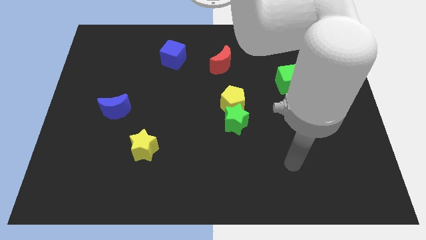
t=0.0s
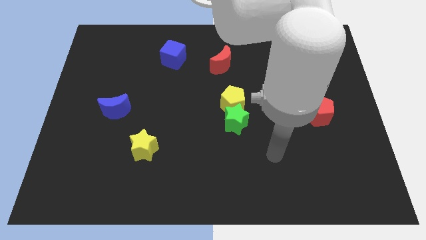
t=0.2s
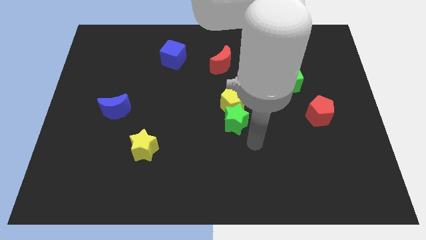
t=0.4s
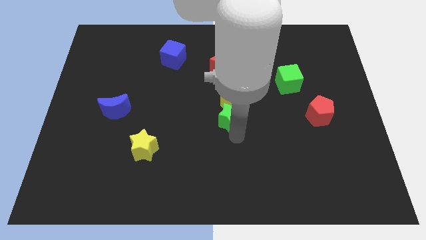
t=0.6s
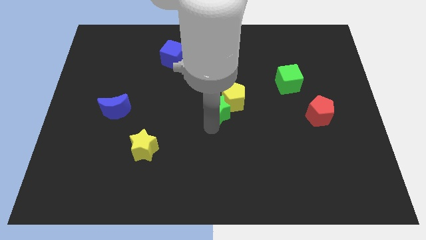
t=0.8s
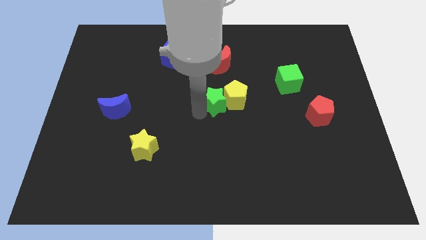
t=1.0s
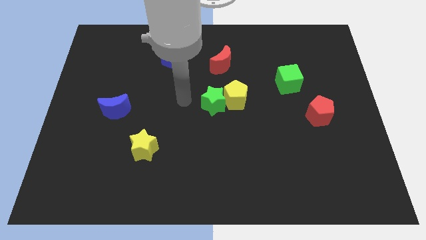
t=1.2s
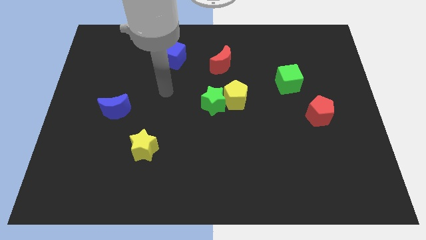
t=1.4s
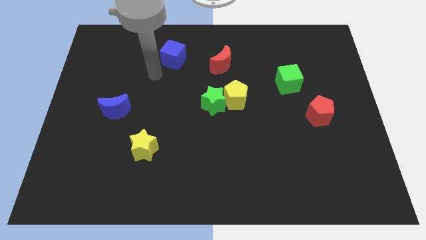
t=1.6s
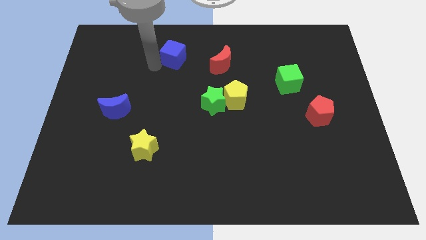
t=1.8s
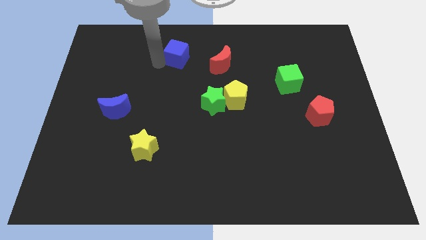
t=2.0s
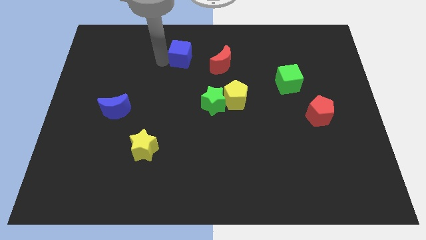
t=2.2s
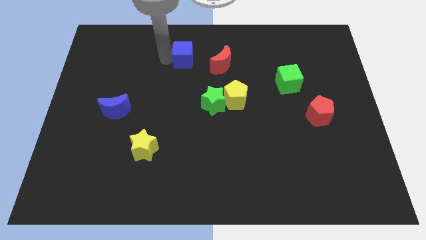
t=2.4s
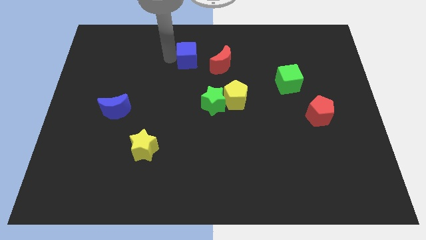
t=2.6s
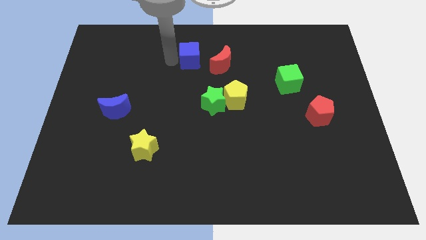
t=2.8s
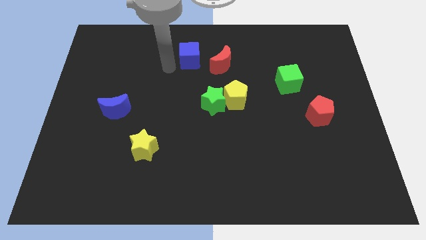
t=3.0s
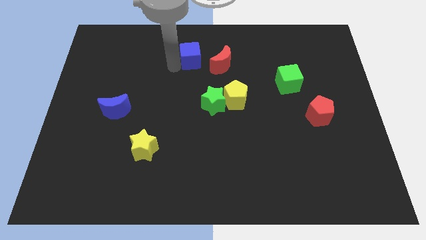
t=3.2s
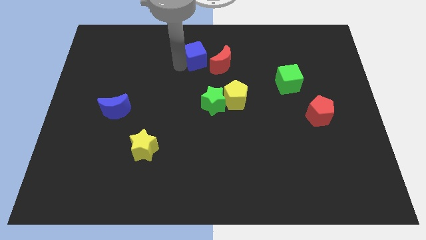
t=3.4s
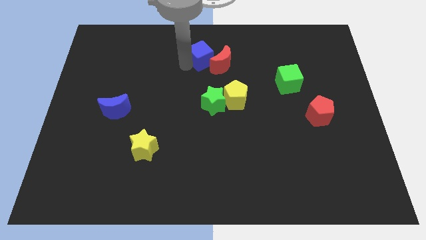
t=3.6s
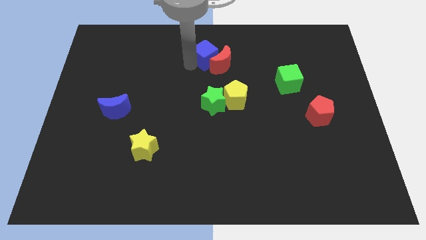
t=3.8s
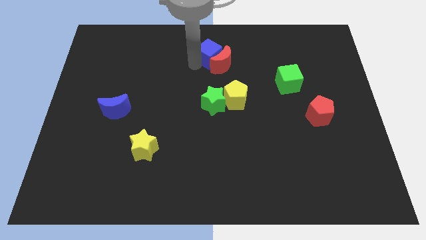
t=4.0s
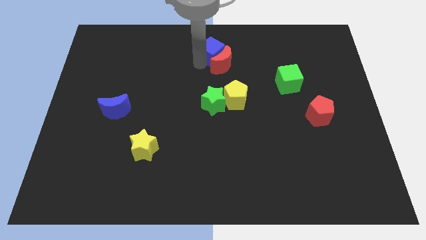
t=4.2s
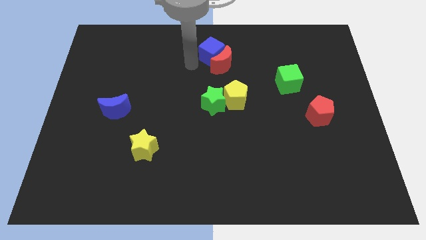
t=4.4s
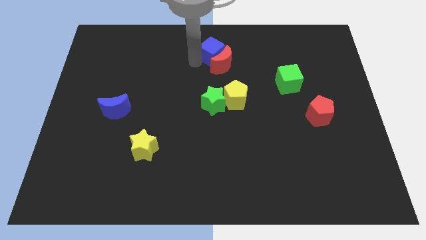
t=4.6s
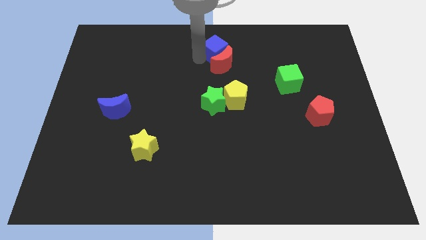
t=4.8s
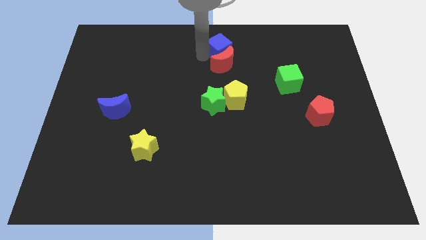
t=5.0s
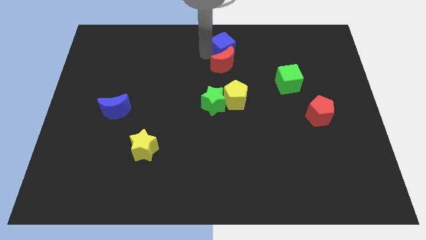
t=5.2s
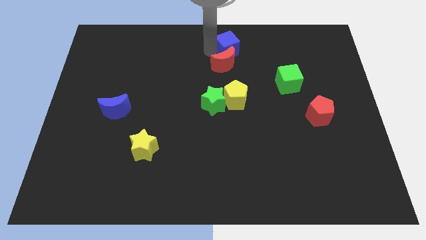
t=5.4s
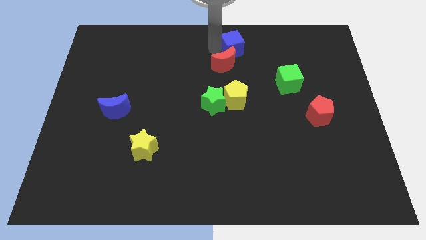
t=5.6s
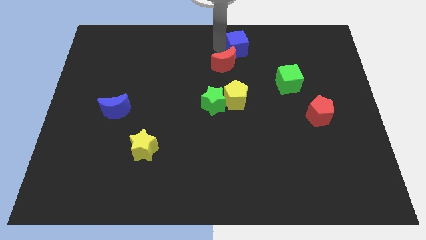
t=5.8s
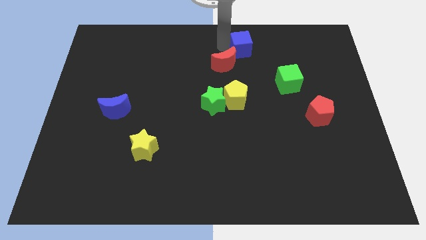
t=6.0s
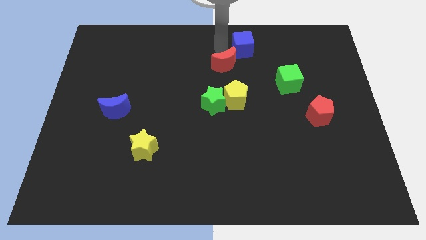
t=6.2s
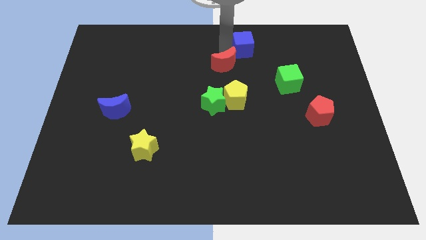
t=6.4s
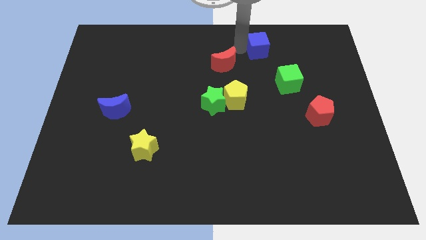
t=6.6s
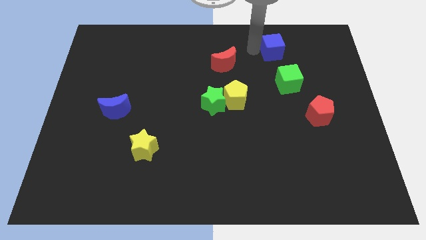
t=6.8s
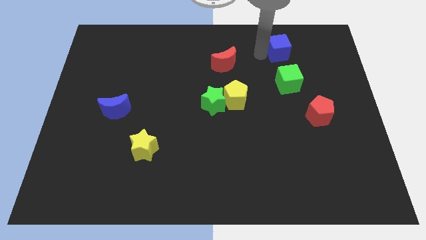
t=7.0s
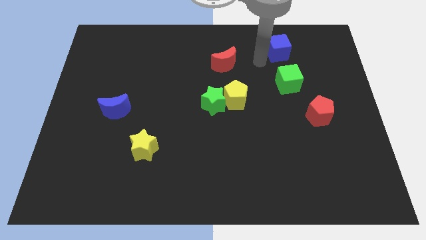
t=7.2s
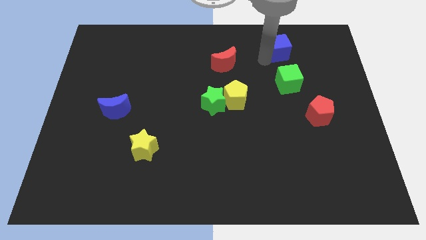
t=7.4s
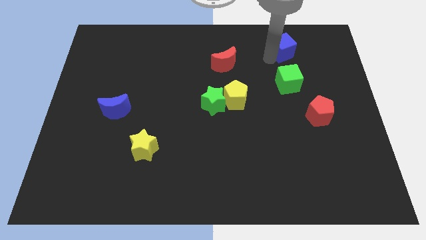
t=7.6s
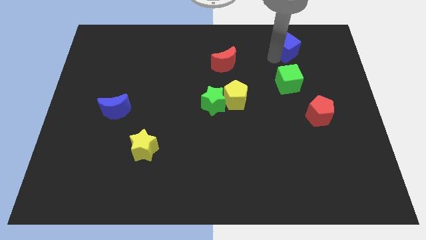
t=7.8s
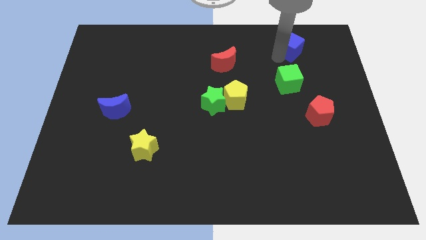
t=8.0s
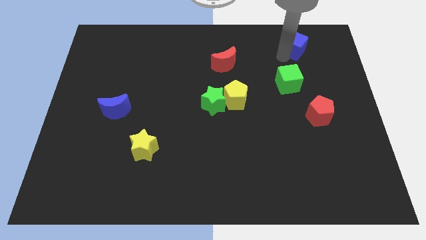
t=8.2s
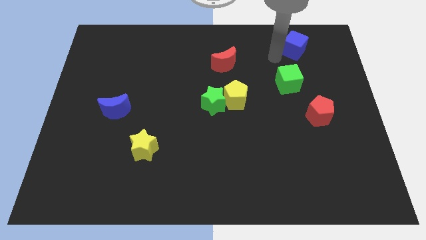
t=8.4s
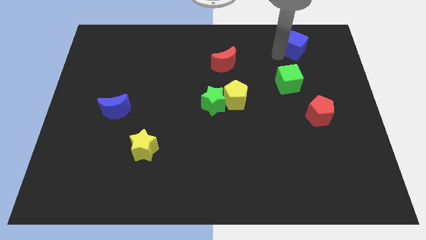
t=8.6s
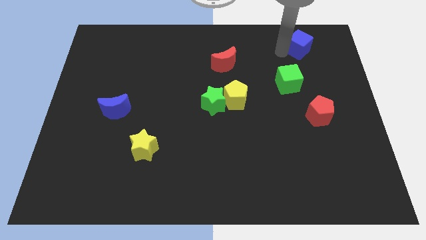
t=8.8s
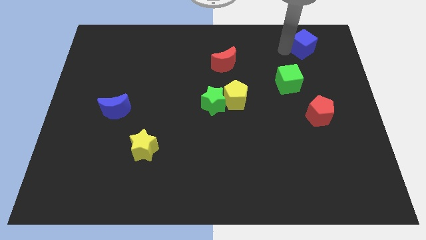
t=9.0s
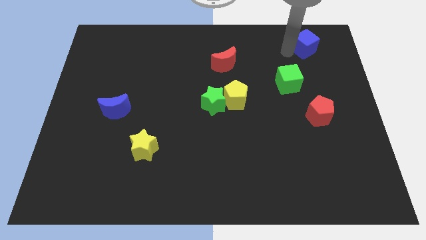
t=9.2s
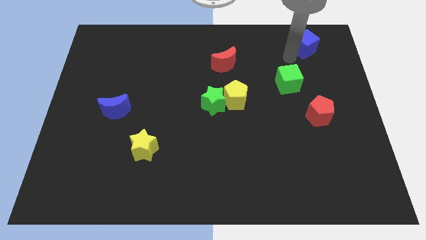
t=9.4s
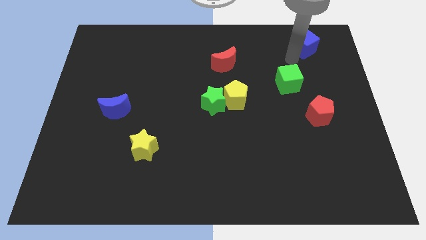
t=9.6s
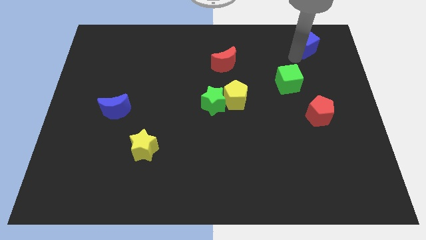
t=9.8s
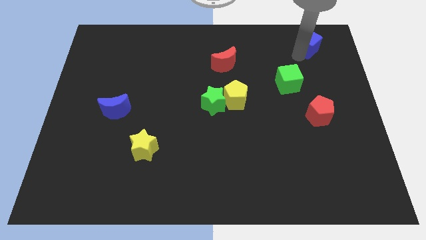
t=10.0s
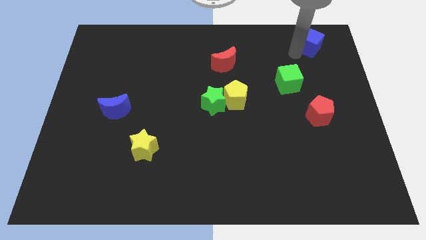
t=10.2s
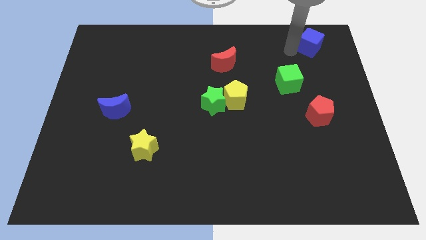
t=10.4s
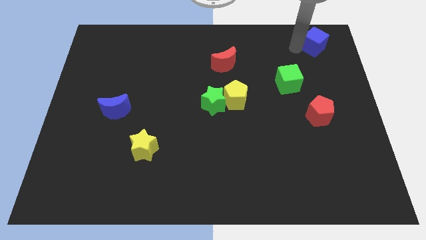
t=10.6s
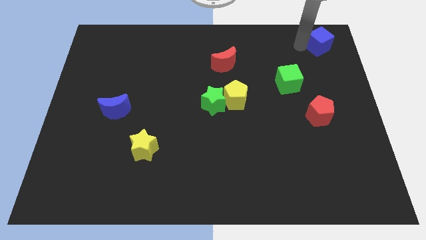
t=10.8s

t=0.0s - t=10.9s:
put the blue cube to the top right corner
